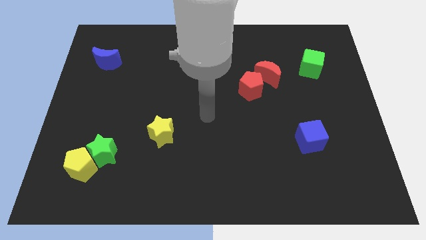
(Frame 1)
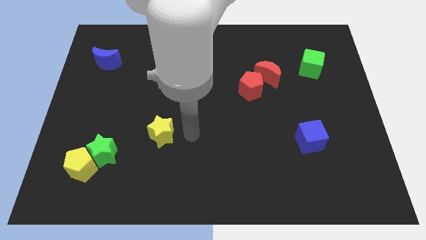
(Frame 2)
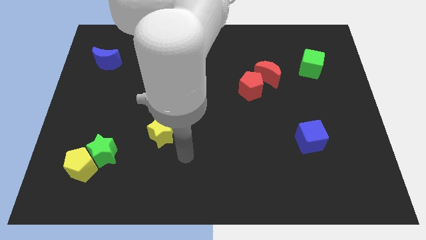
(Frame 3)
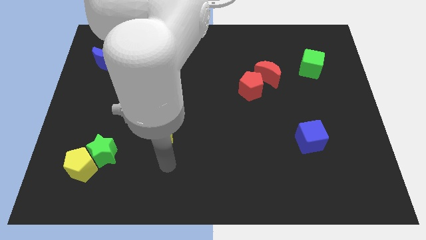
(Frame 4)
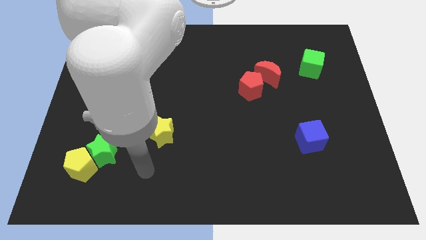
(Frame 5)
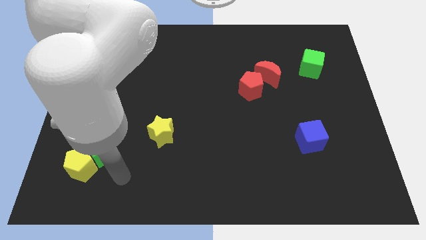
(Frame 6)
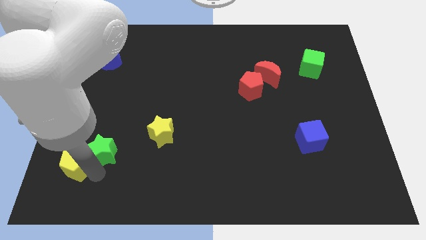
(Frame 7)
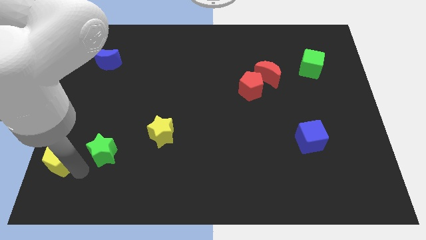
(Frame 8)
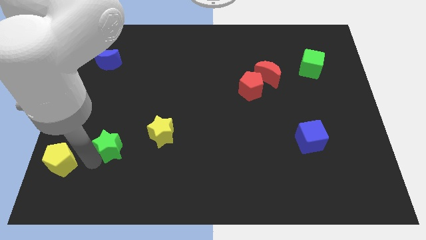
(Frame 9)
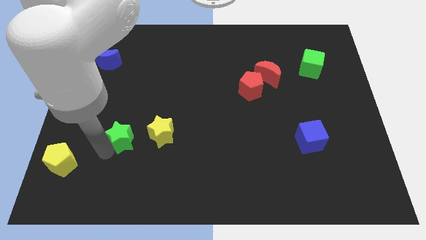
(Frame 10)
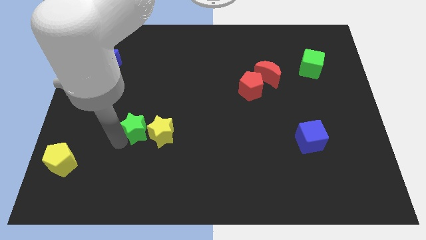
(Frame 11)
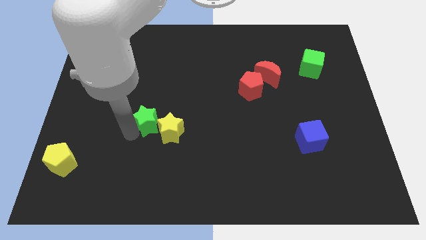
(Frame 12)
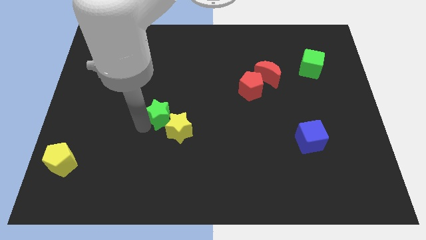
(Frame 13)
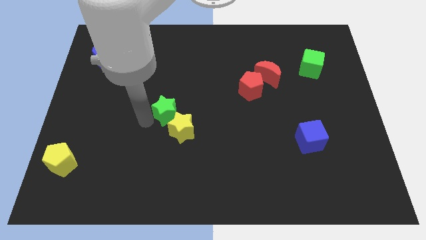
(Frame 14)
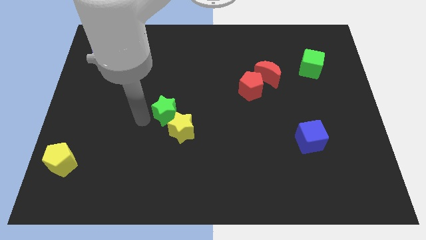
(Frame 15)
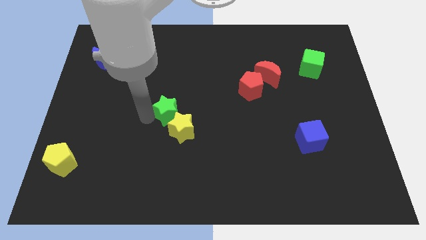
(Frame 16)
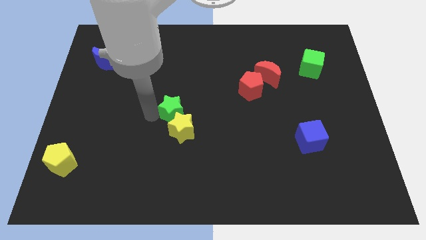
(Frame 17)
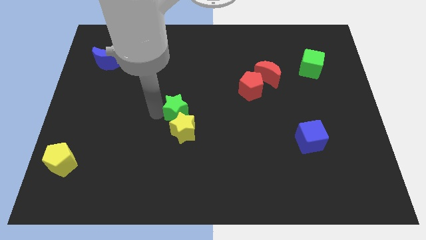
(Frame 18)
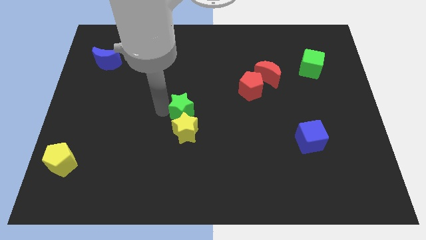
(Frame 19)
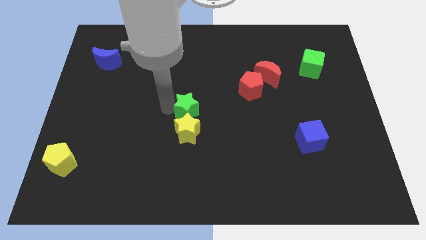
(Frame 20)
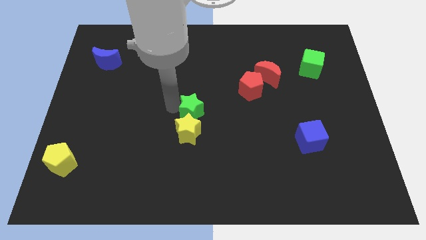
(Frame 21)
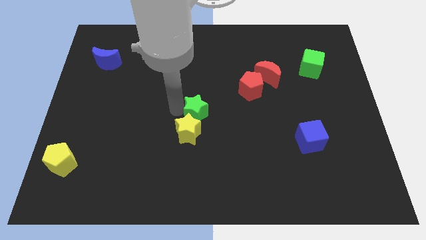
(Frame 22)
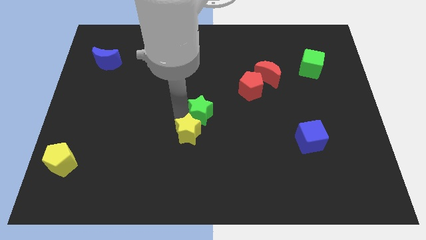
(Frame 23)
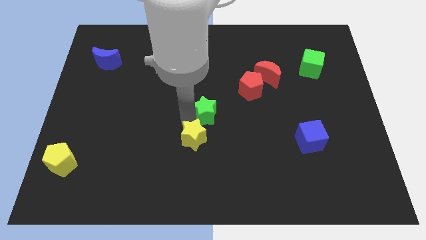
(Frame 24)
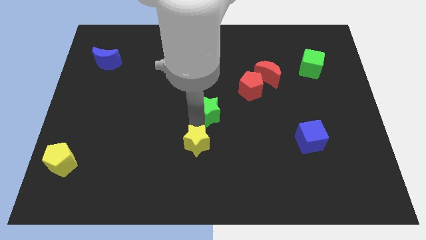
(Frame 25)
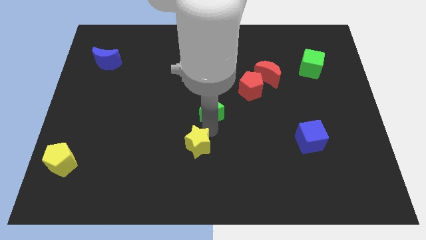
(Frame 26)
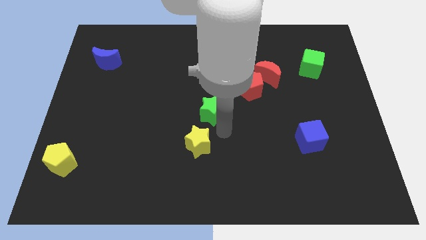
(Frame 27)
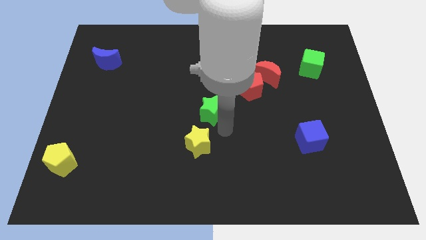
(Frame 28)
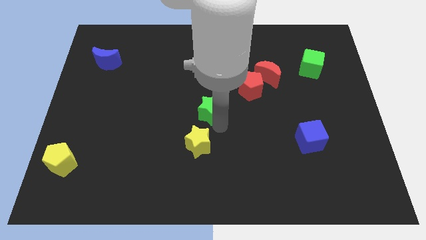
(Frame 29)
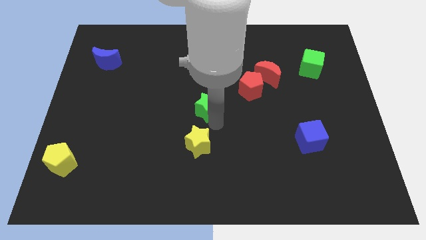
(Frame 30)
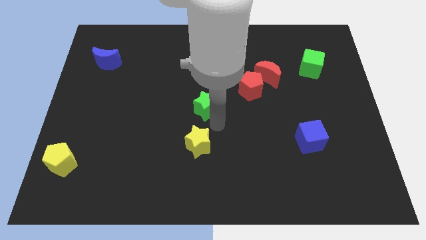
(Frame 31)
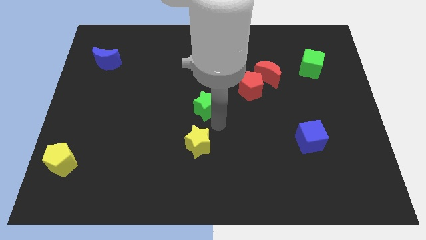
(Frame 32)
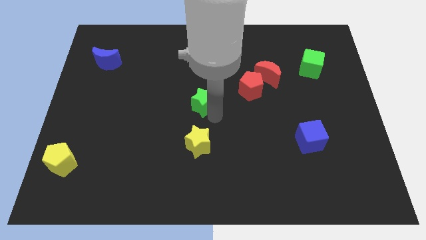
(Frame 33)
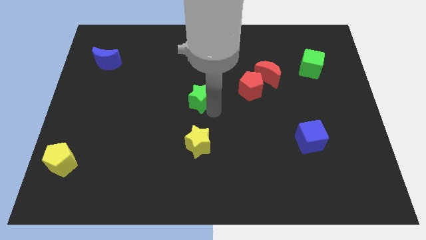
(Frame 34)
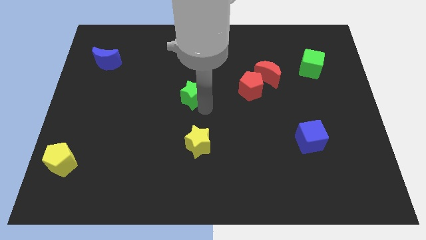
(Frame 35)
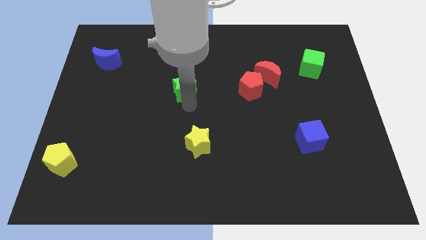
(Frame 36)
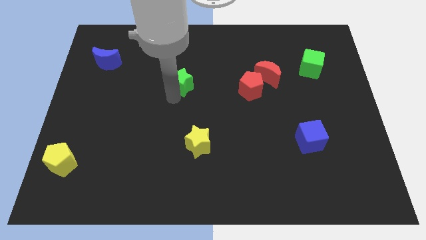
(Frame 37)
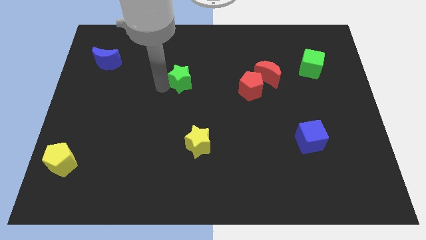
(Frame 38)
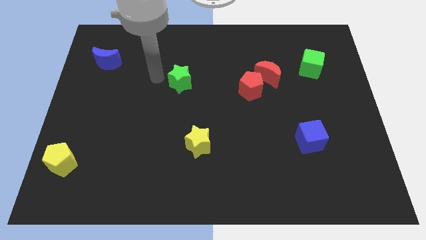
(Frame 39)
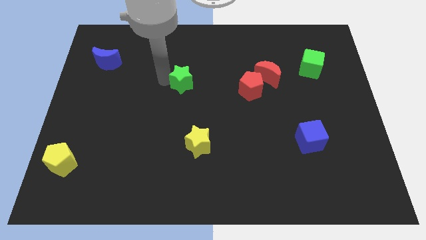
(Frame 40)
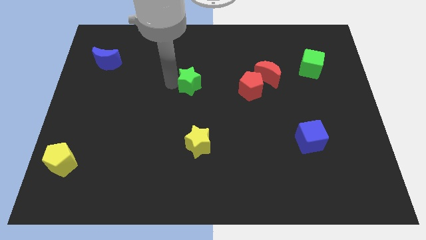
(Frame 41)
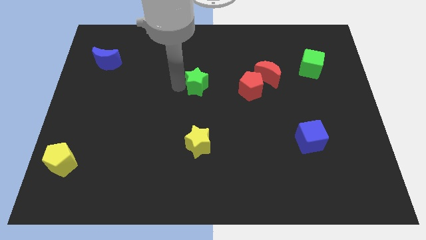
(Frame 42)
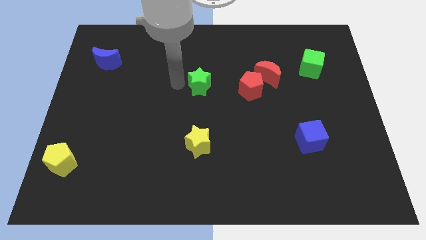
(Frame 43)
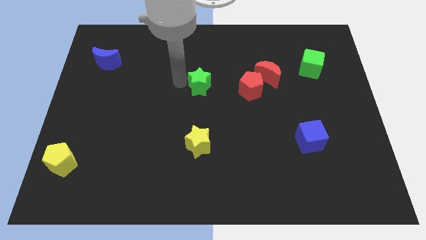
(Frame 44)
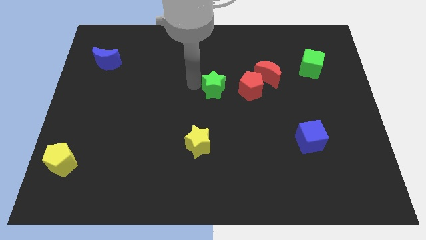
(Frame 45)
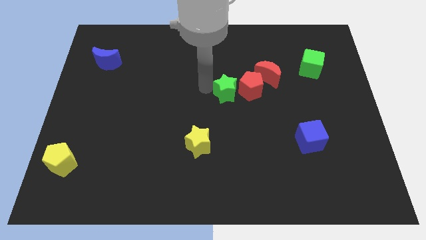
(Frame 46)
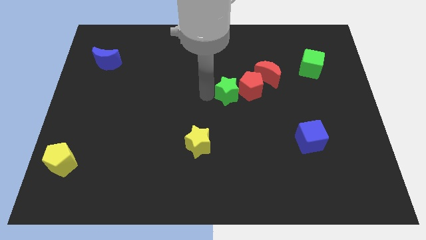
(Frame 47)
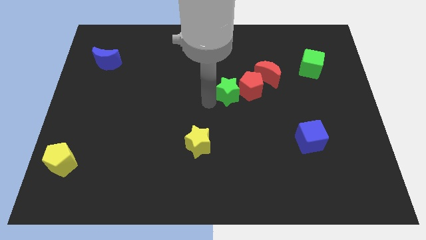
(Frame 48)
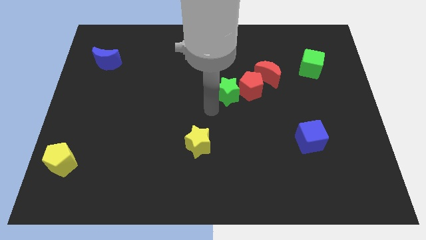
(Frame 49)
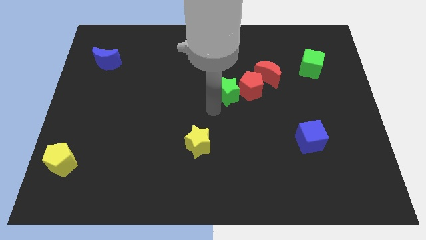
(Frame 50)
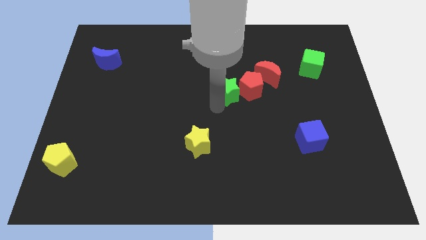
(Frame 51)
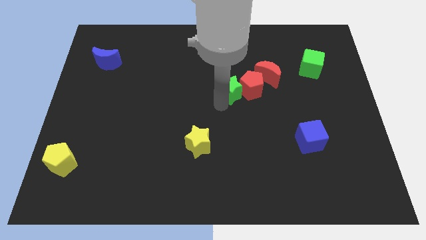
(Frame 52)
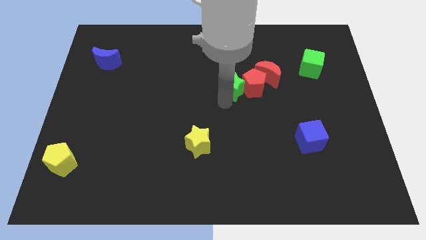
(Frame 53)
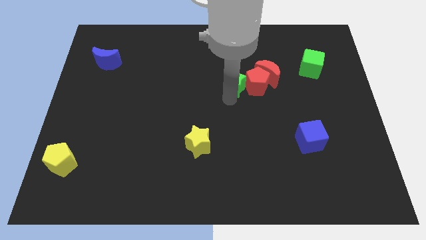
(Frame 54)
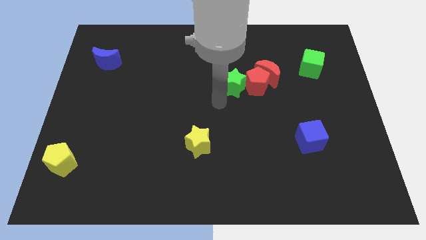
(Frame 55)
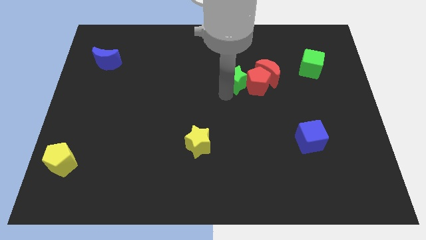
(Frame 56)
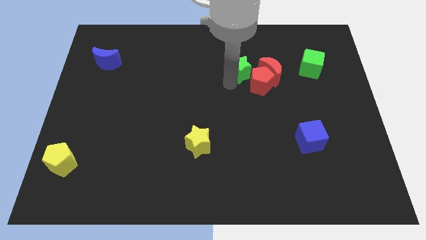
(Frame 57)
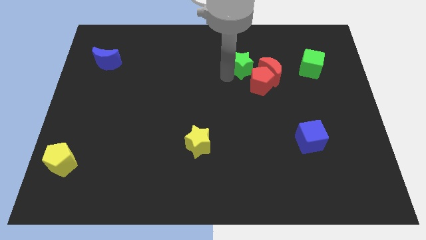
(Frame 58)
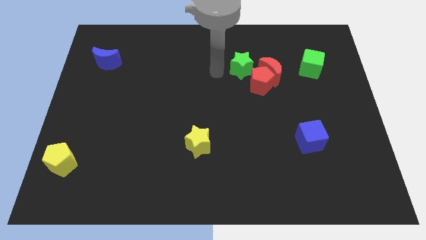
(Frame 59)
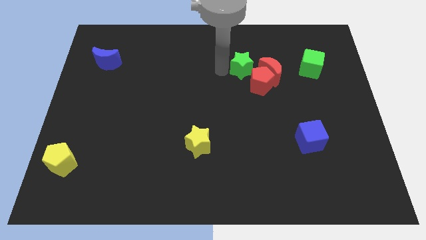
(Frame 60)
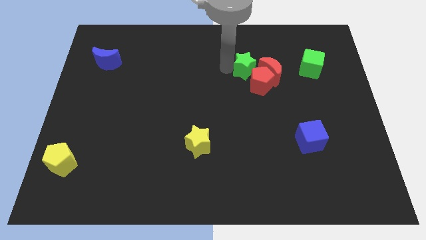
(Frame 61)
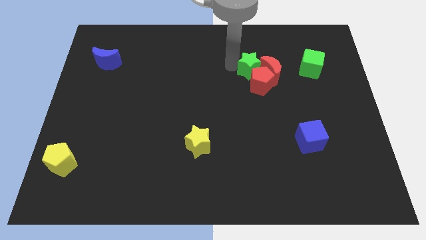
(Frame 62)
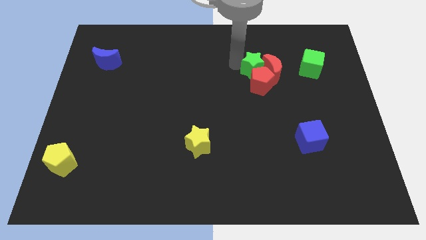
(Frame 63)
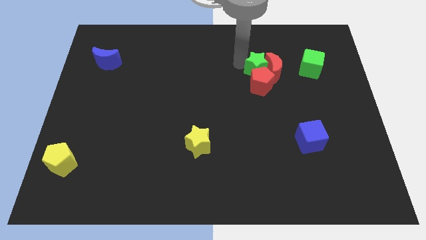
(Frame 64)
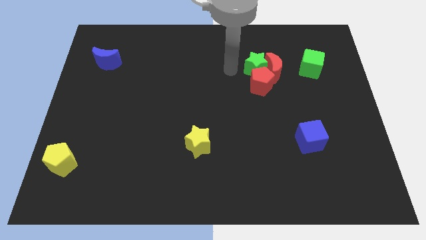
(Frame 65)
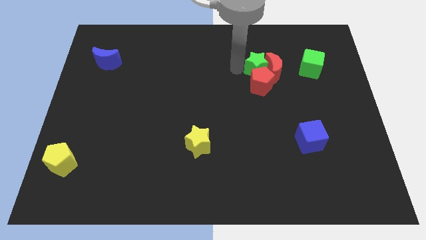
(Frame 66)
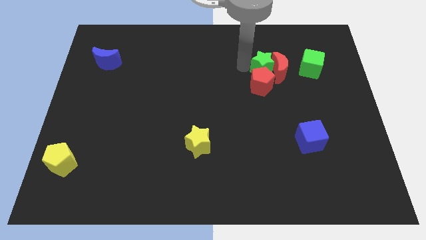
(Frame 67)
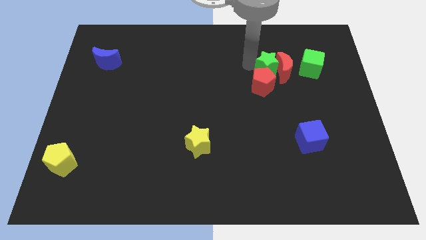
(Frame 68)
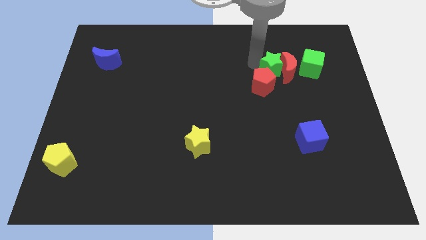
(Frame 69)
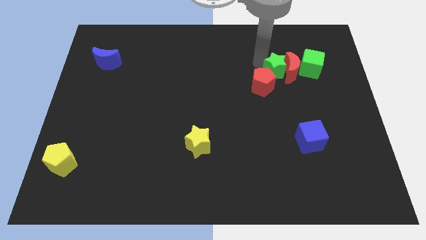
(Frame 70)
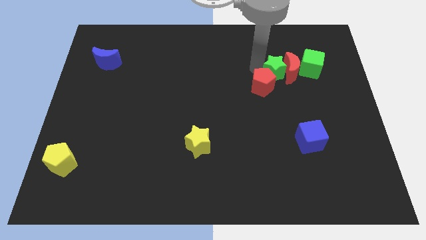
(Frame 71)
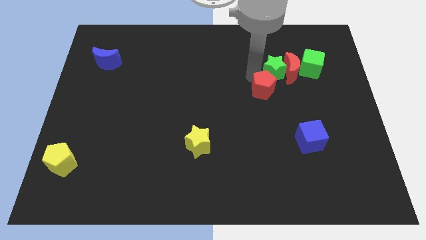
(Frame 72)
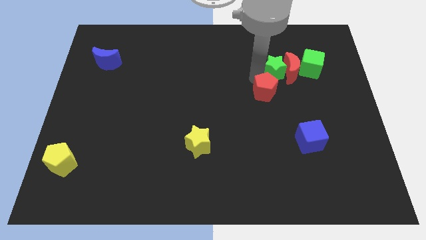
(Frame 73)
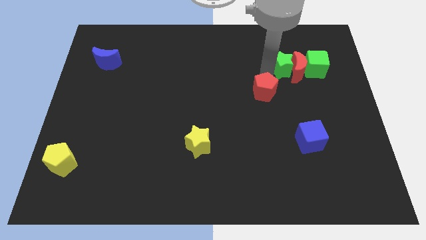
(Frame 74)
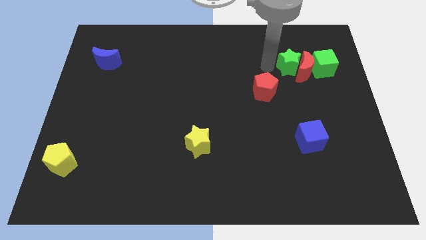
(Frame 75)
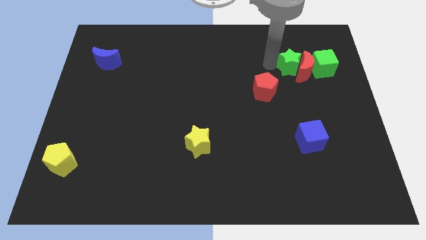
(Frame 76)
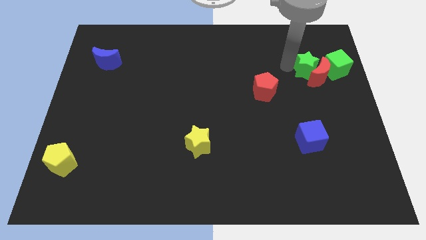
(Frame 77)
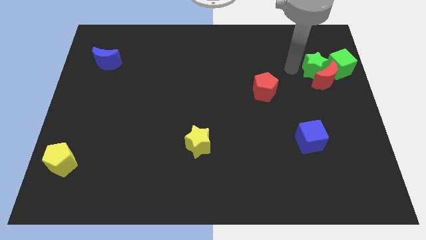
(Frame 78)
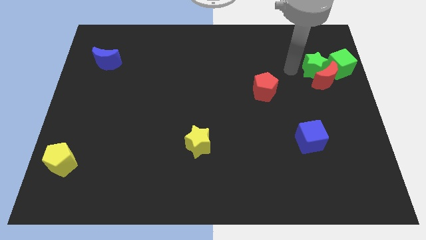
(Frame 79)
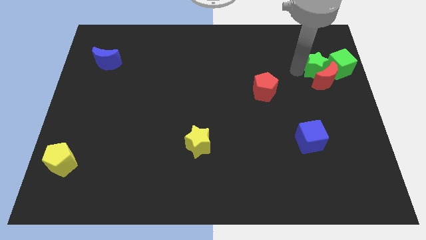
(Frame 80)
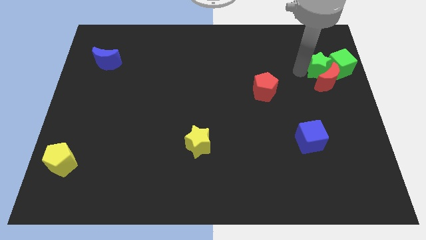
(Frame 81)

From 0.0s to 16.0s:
slide the green star to the green cube
